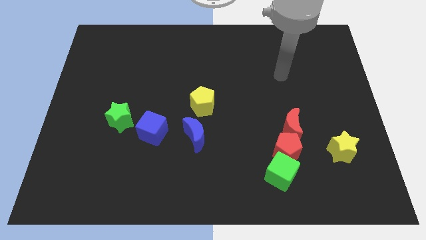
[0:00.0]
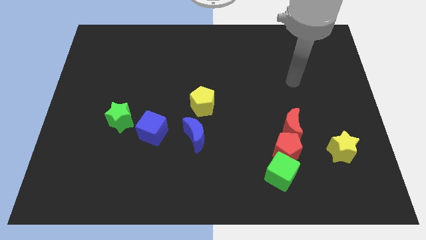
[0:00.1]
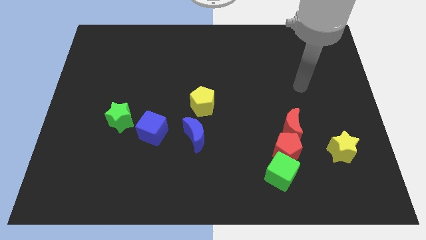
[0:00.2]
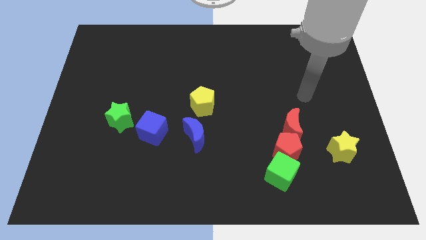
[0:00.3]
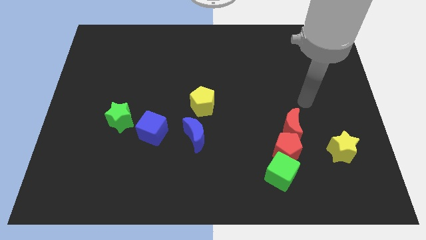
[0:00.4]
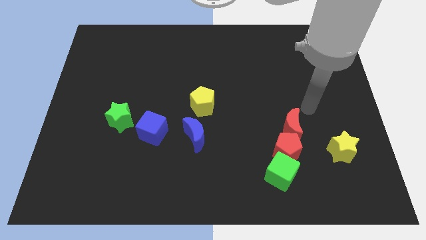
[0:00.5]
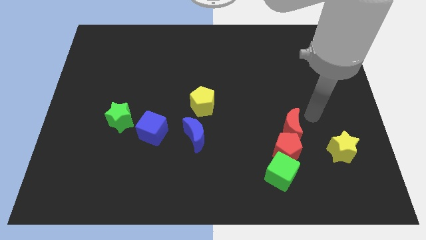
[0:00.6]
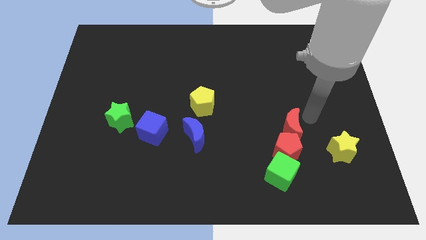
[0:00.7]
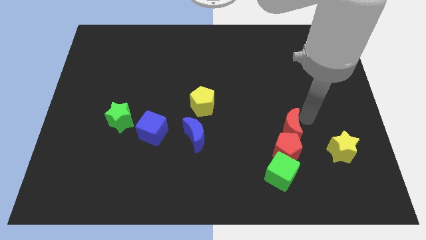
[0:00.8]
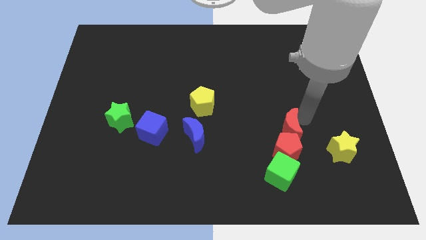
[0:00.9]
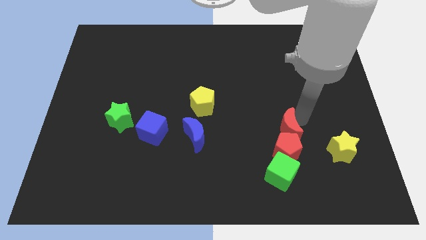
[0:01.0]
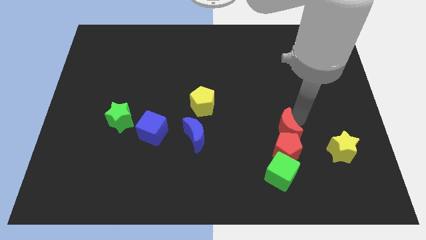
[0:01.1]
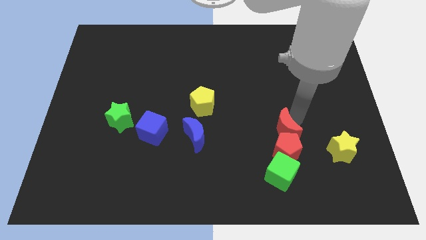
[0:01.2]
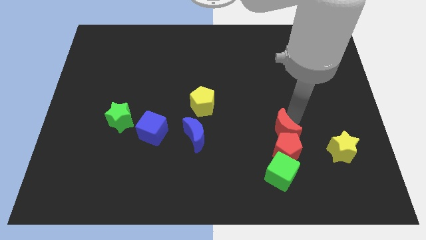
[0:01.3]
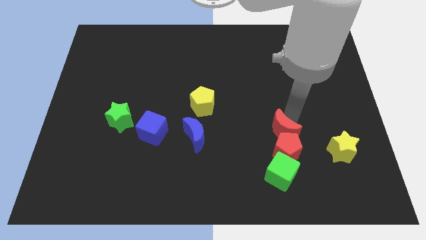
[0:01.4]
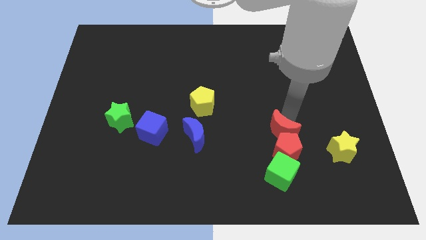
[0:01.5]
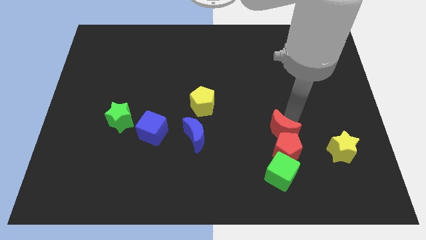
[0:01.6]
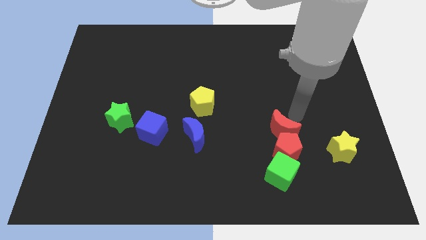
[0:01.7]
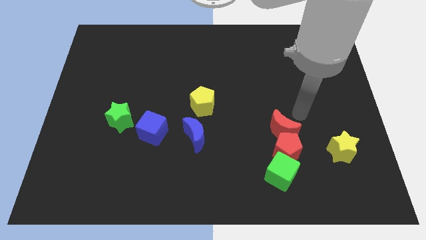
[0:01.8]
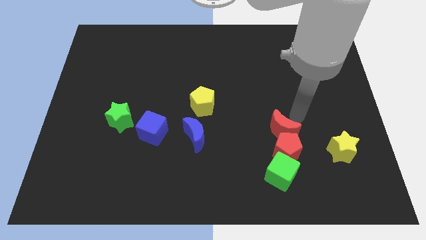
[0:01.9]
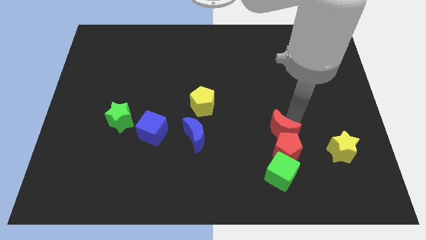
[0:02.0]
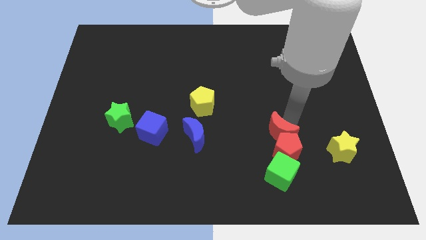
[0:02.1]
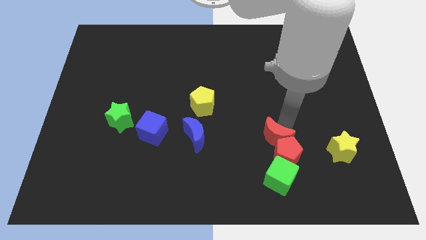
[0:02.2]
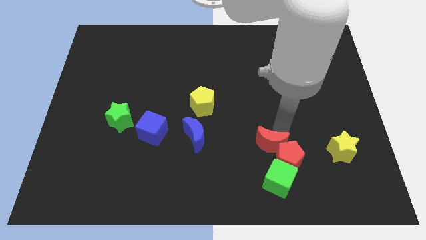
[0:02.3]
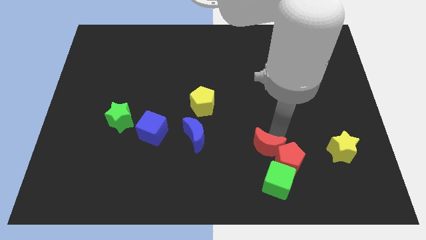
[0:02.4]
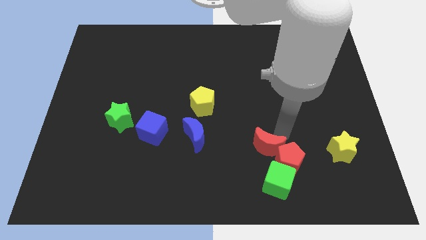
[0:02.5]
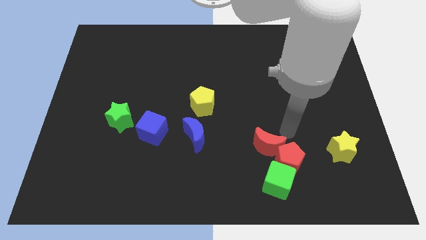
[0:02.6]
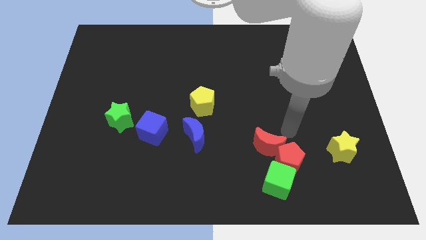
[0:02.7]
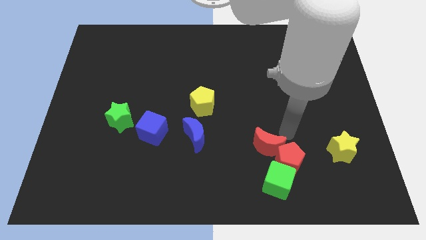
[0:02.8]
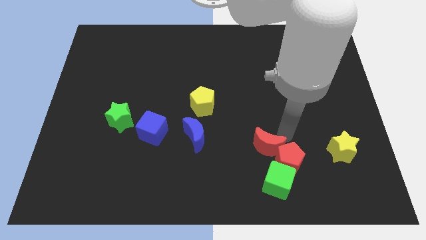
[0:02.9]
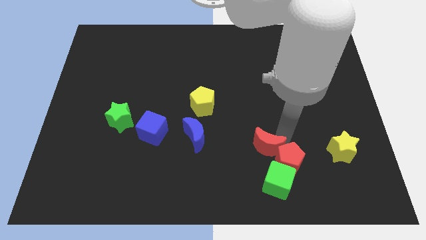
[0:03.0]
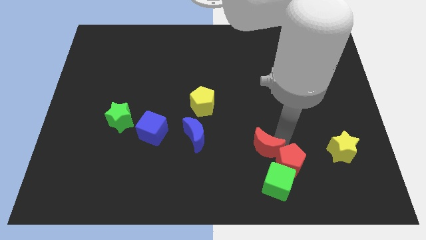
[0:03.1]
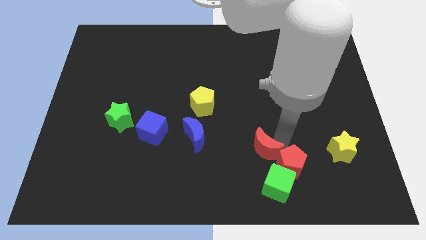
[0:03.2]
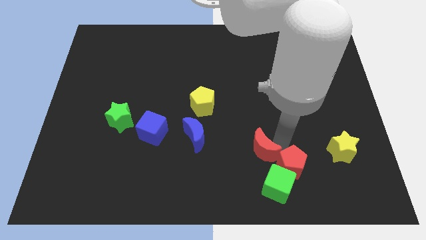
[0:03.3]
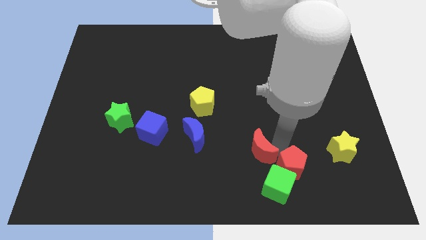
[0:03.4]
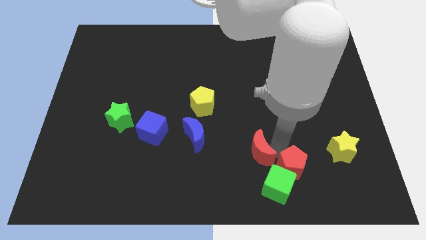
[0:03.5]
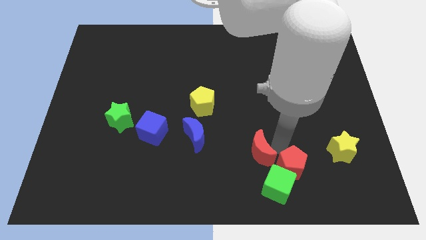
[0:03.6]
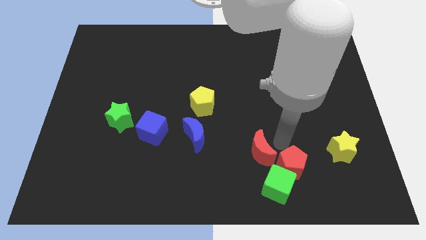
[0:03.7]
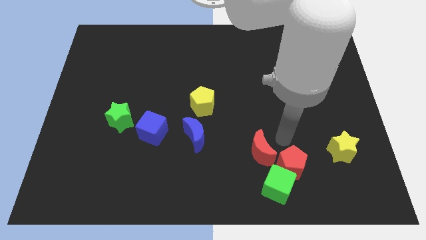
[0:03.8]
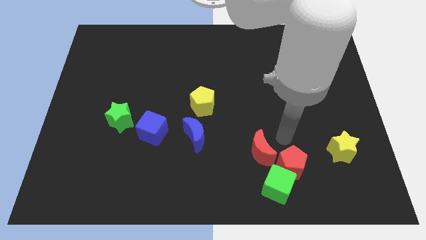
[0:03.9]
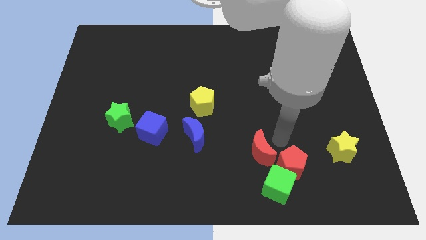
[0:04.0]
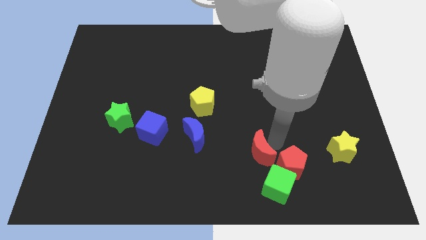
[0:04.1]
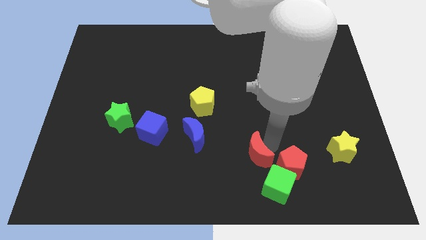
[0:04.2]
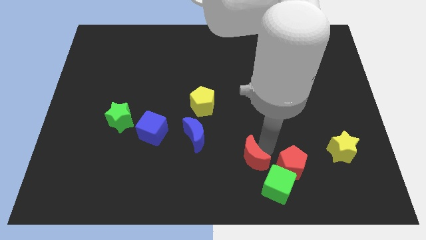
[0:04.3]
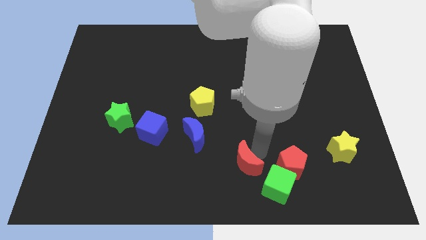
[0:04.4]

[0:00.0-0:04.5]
slide the red moon to the bottom

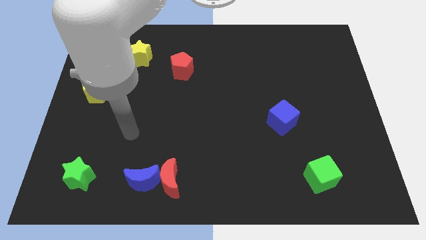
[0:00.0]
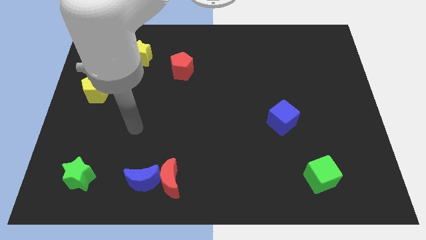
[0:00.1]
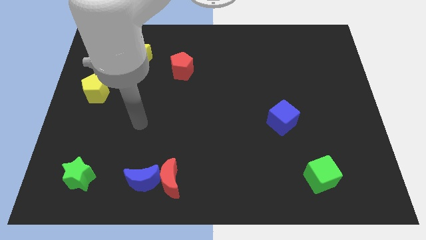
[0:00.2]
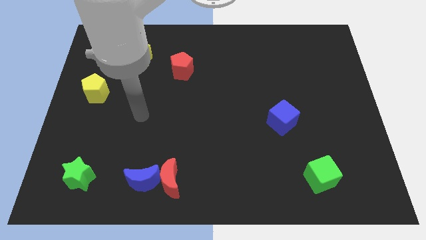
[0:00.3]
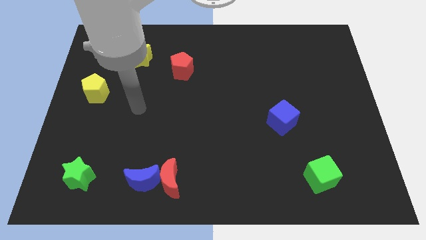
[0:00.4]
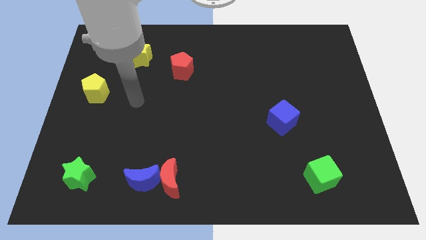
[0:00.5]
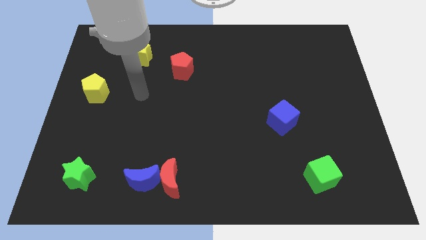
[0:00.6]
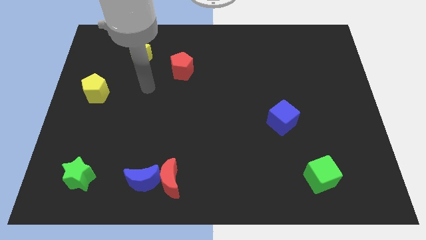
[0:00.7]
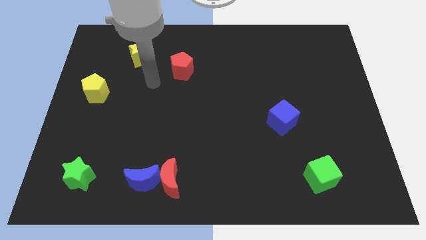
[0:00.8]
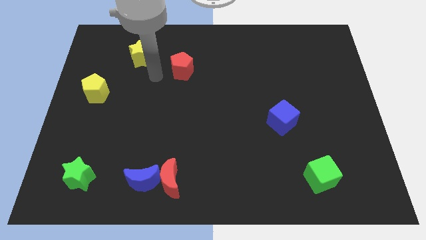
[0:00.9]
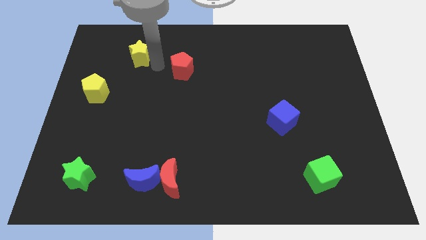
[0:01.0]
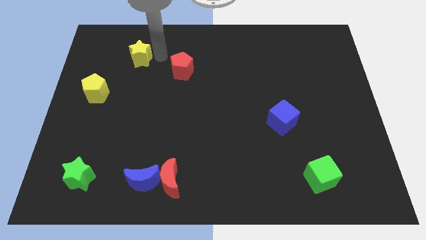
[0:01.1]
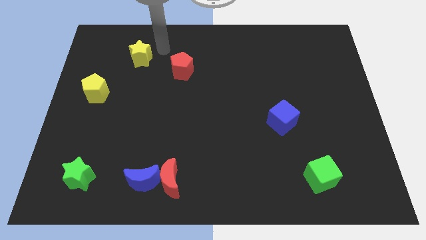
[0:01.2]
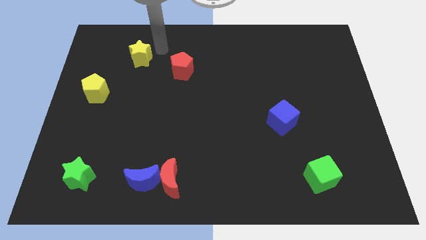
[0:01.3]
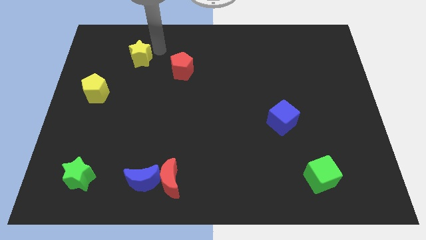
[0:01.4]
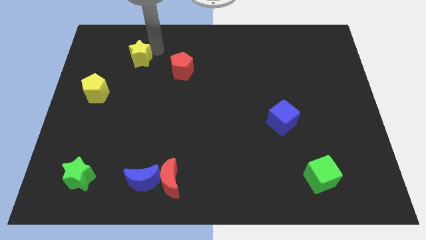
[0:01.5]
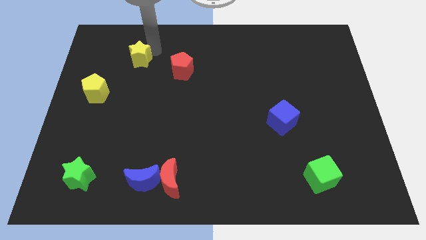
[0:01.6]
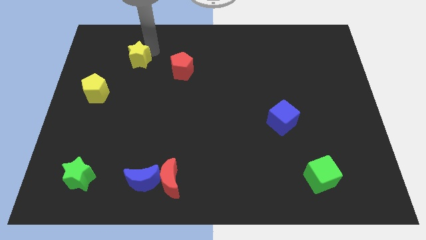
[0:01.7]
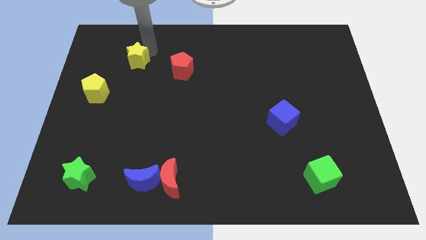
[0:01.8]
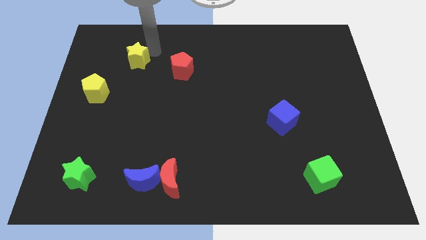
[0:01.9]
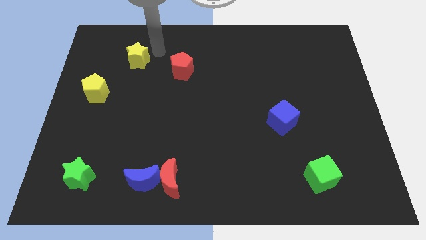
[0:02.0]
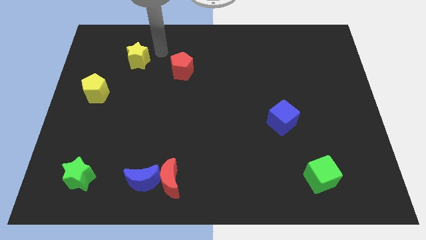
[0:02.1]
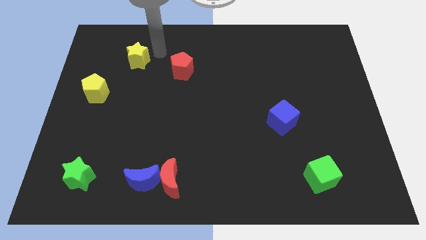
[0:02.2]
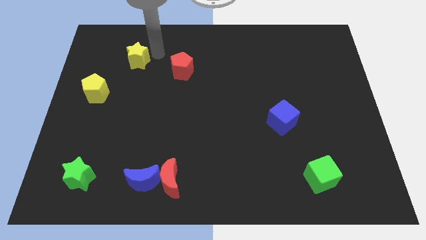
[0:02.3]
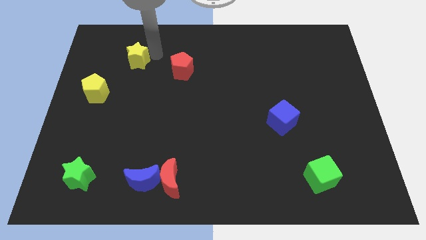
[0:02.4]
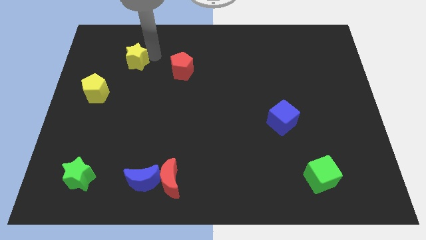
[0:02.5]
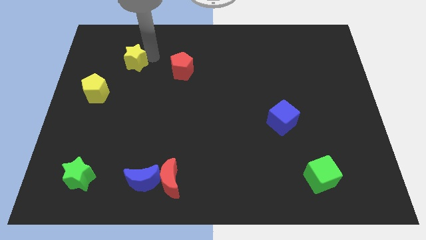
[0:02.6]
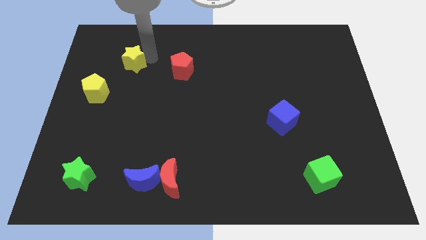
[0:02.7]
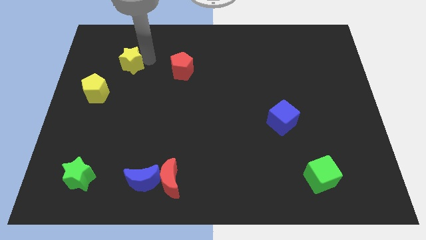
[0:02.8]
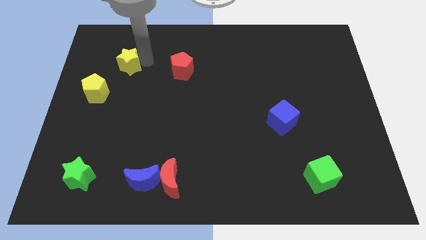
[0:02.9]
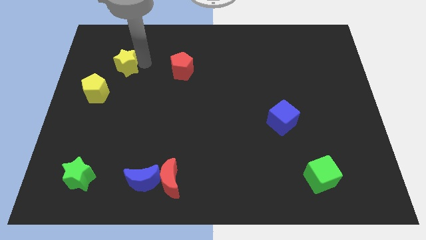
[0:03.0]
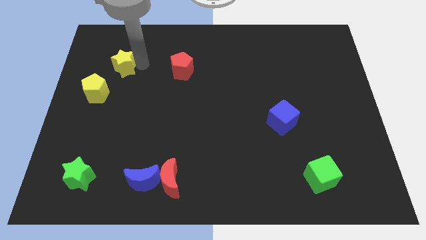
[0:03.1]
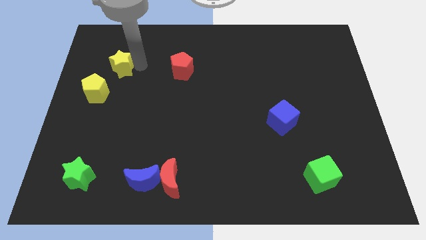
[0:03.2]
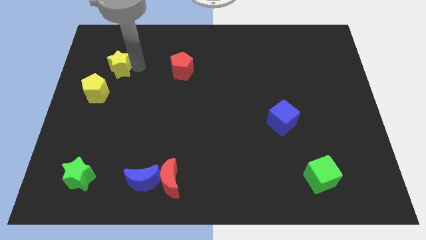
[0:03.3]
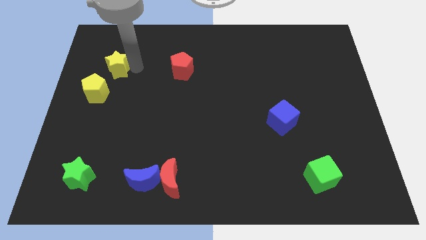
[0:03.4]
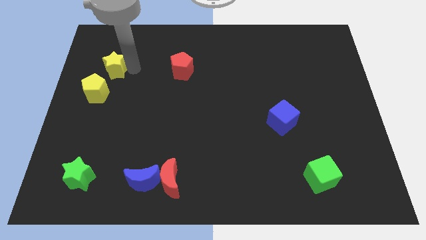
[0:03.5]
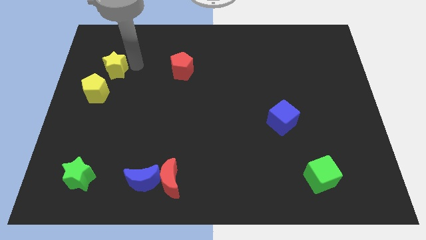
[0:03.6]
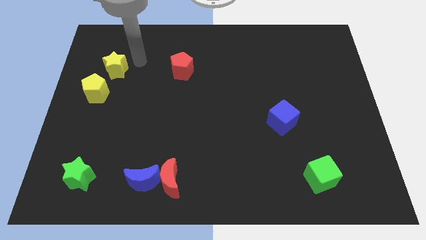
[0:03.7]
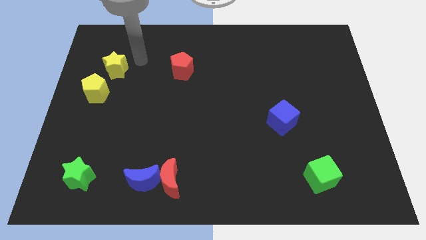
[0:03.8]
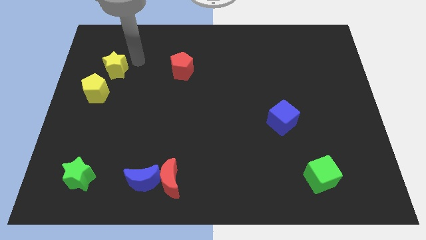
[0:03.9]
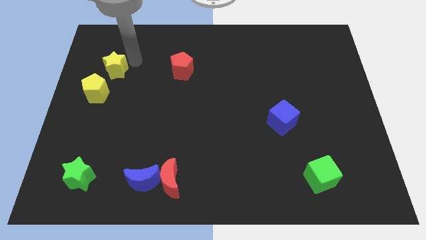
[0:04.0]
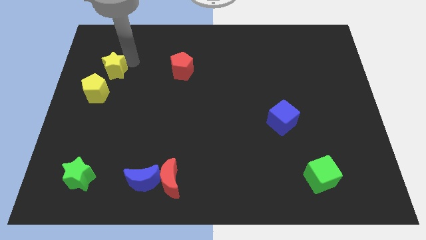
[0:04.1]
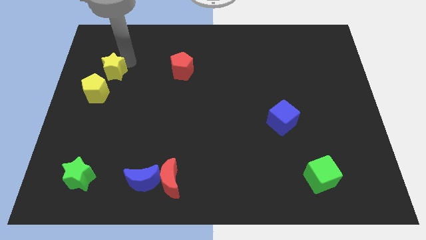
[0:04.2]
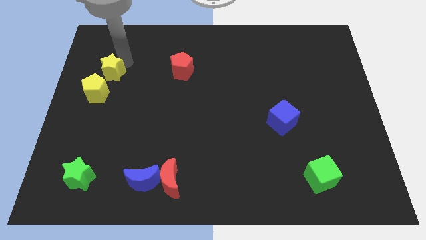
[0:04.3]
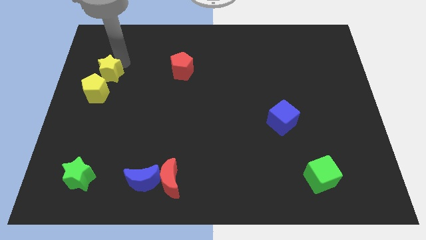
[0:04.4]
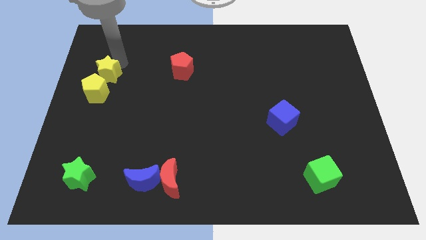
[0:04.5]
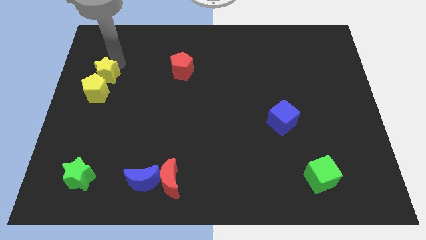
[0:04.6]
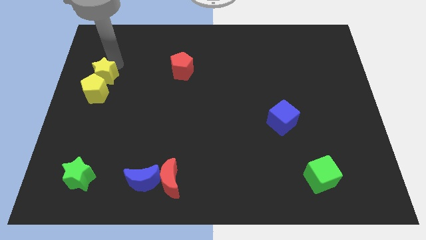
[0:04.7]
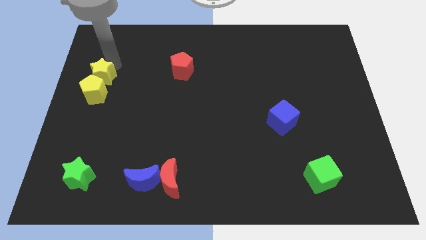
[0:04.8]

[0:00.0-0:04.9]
put the yellow star to the left side
